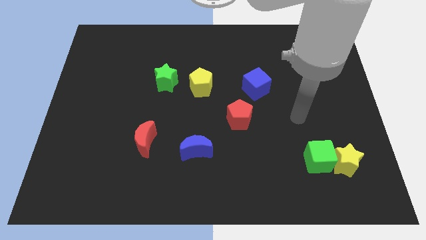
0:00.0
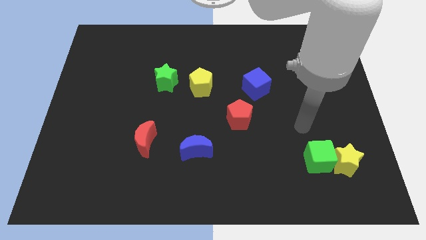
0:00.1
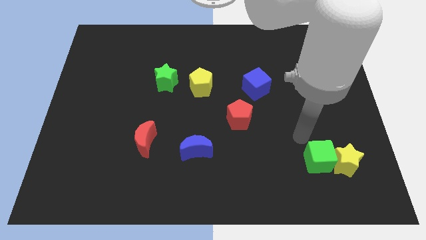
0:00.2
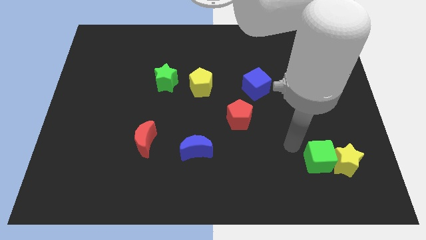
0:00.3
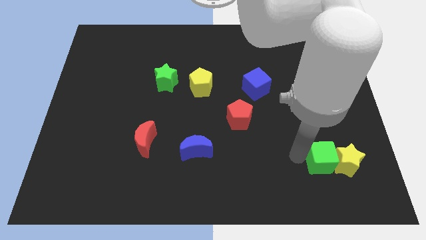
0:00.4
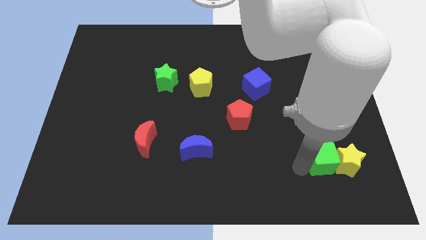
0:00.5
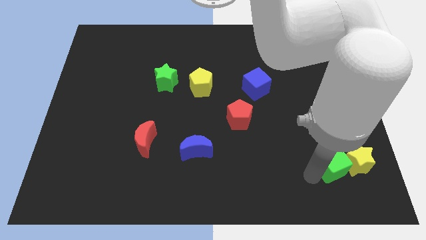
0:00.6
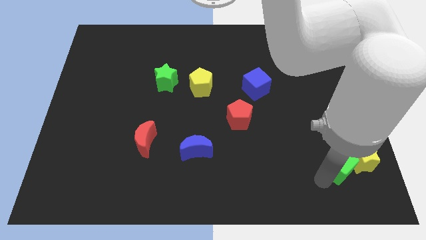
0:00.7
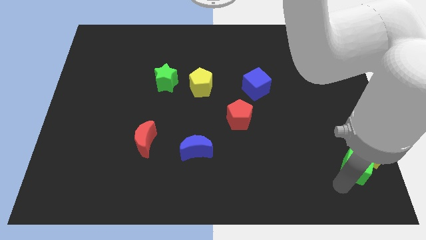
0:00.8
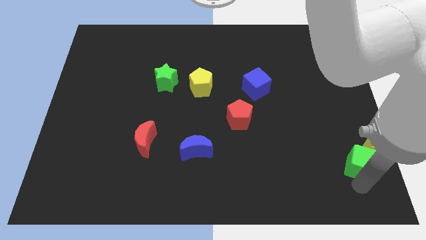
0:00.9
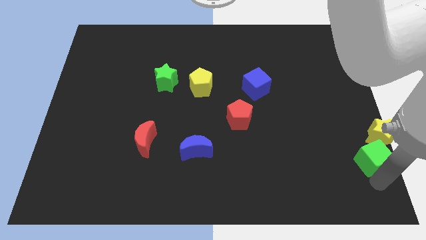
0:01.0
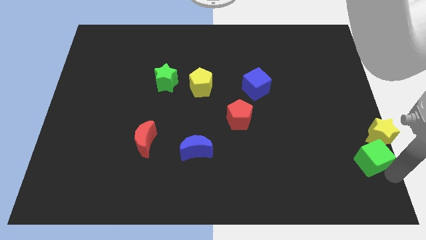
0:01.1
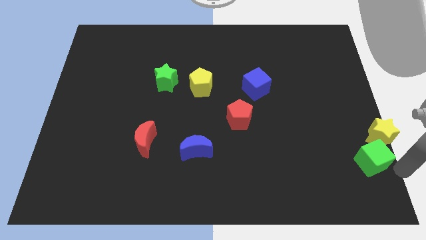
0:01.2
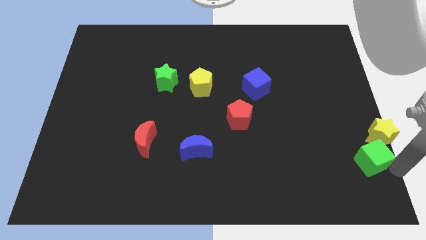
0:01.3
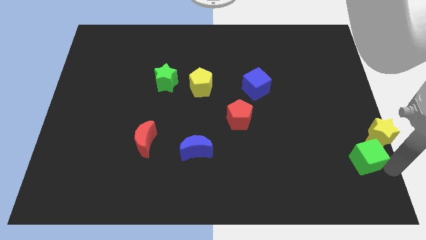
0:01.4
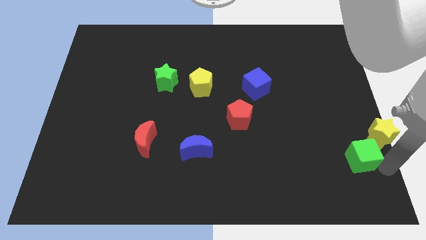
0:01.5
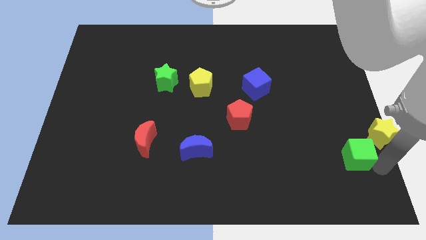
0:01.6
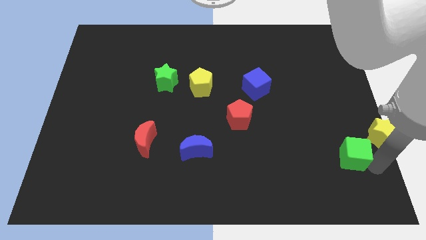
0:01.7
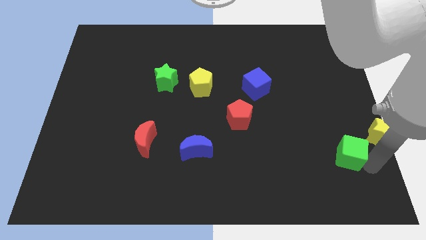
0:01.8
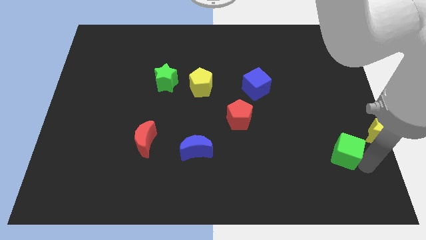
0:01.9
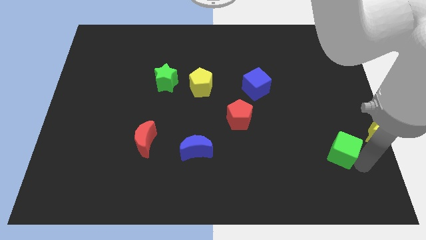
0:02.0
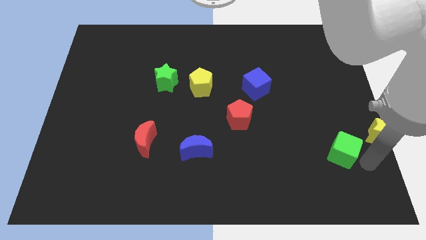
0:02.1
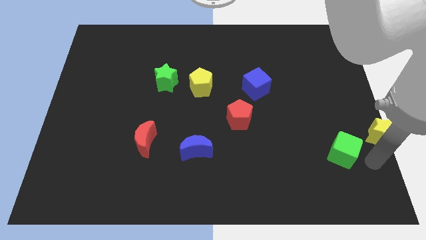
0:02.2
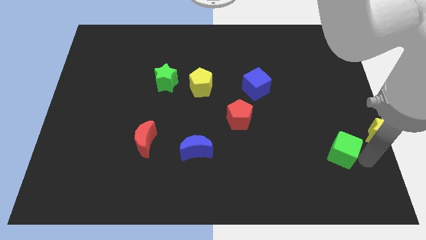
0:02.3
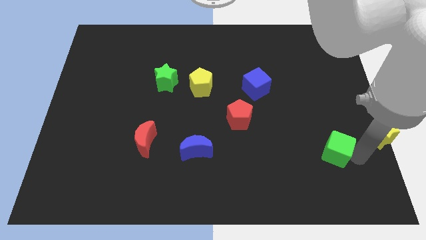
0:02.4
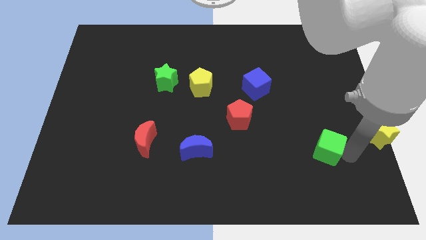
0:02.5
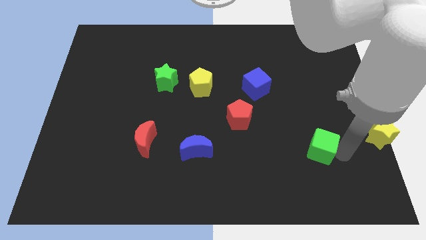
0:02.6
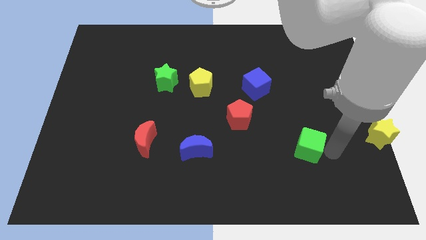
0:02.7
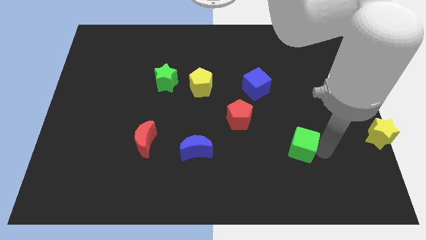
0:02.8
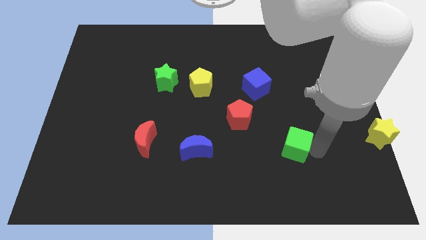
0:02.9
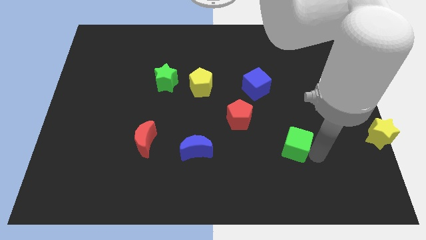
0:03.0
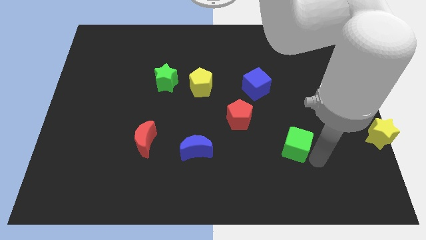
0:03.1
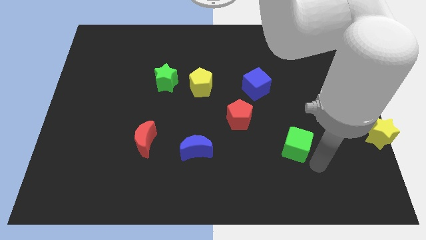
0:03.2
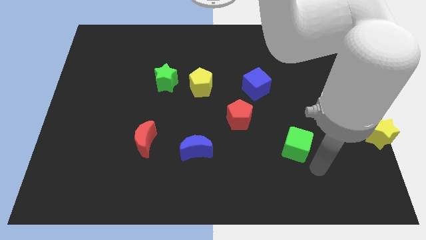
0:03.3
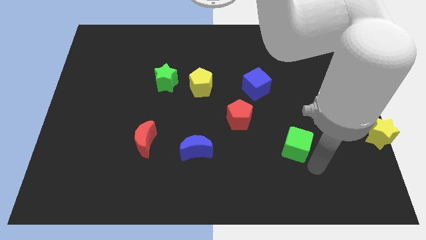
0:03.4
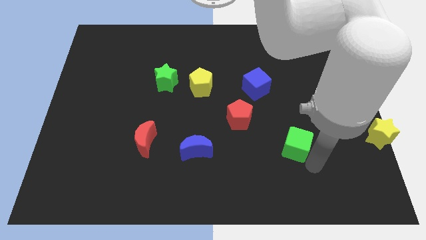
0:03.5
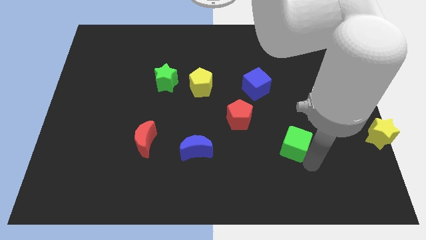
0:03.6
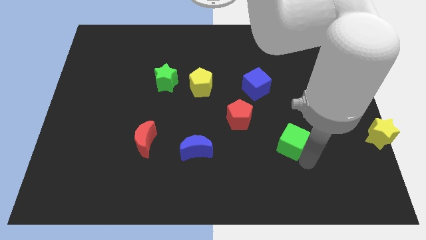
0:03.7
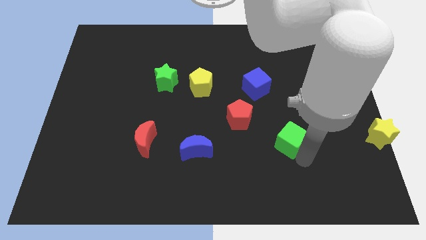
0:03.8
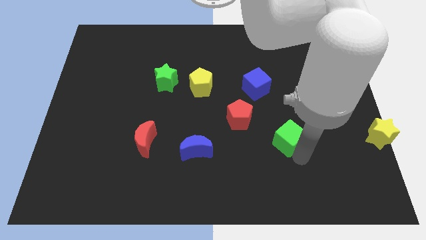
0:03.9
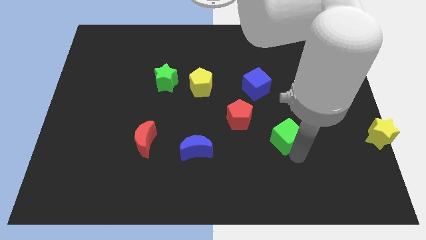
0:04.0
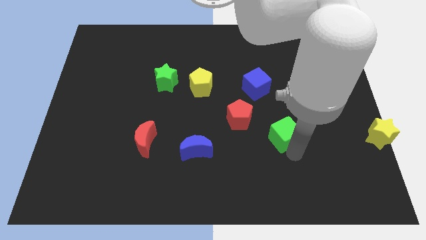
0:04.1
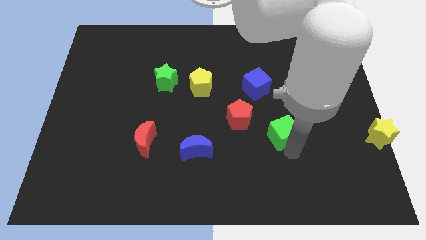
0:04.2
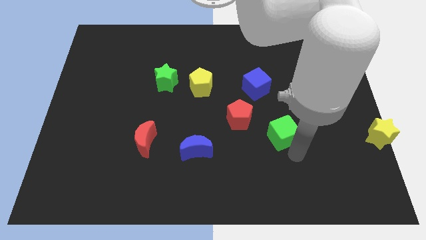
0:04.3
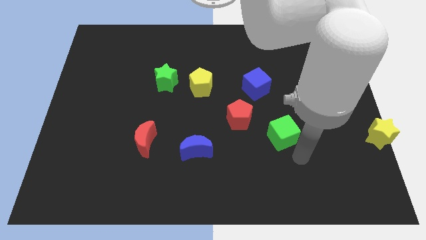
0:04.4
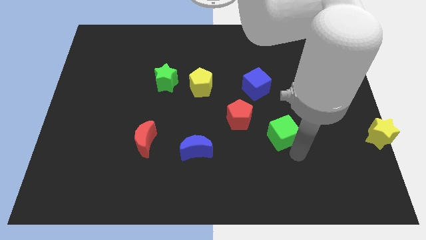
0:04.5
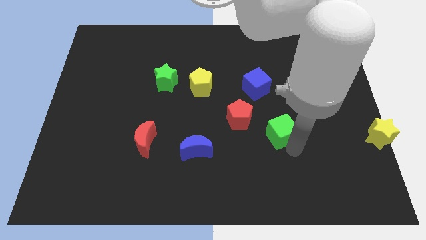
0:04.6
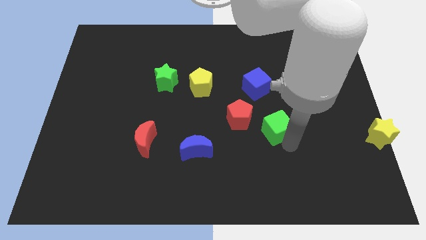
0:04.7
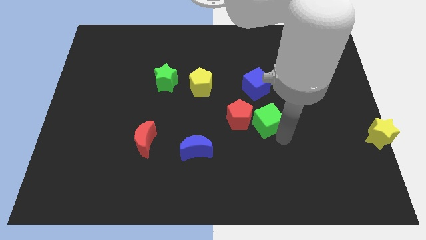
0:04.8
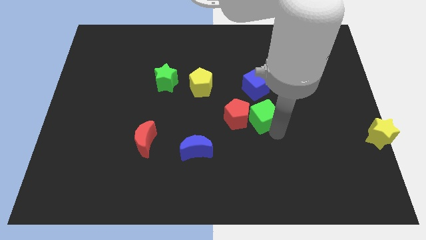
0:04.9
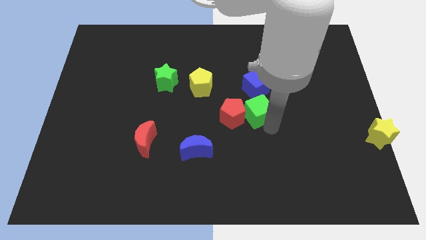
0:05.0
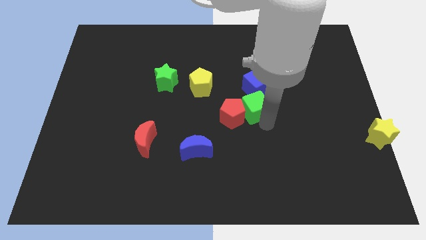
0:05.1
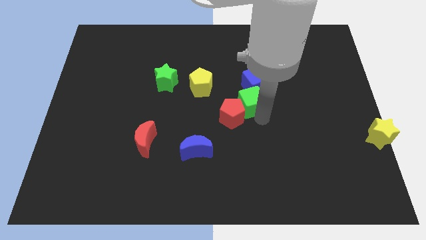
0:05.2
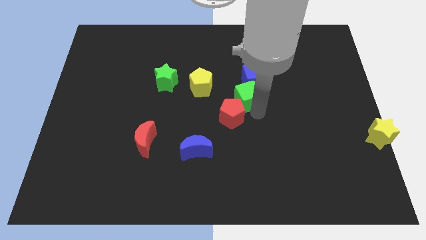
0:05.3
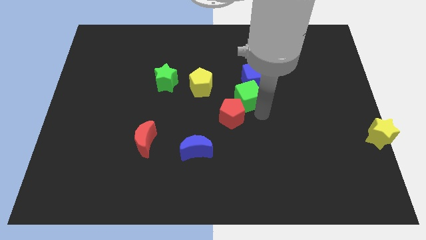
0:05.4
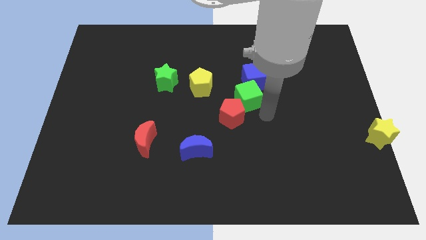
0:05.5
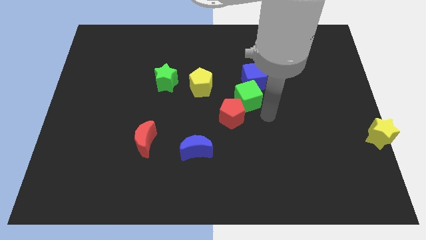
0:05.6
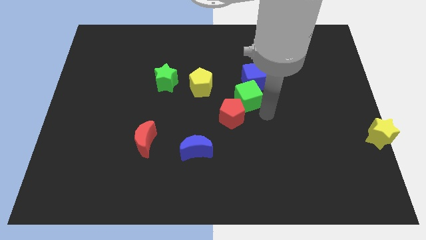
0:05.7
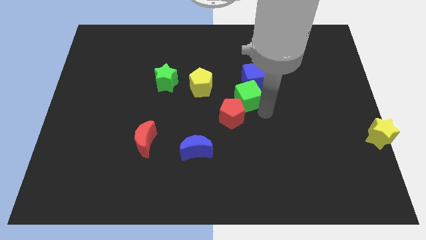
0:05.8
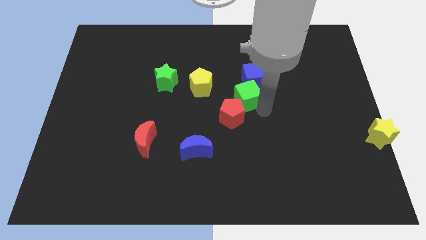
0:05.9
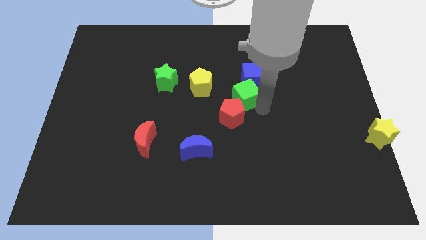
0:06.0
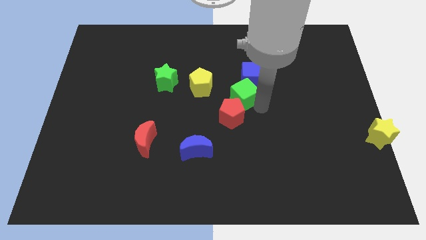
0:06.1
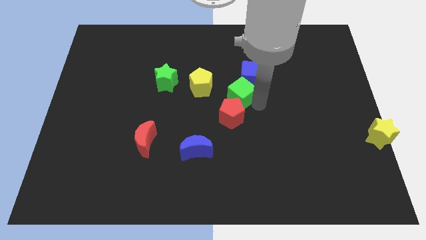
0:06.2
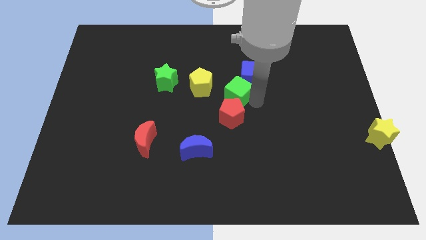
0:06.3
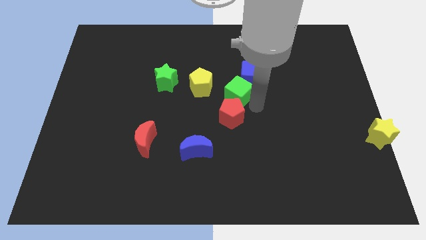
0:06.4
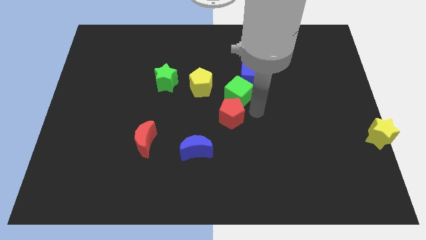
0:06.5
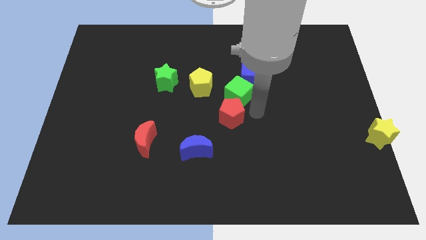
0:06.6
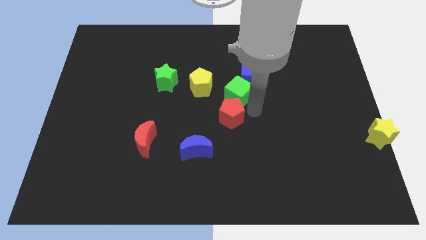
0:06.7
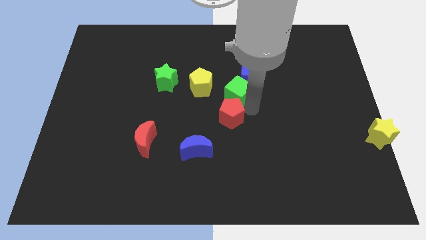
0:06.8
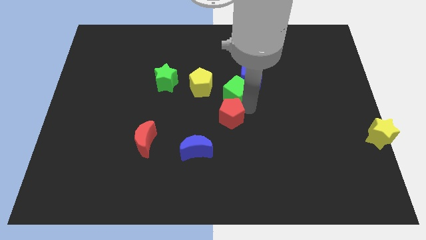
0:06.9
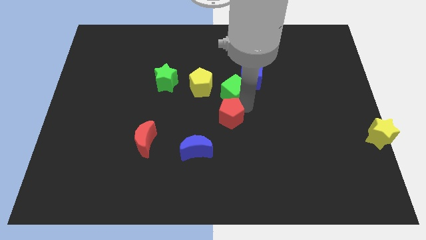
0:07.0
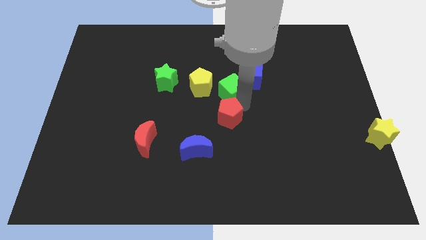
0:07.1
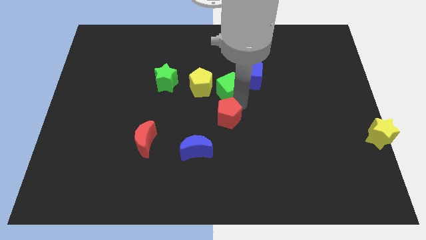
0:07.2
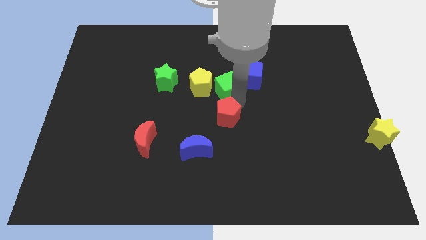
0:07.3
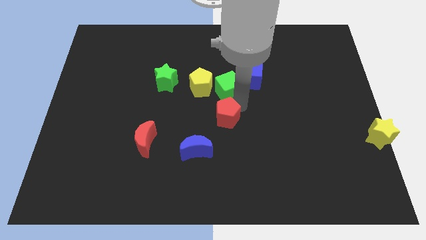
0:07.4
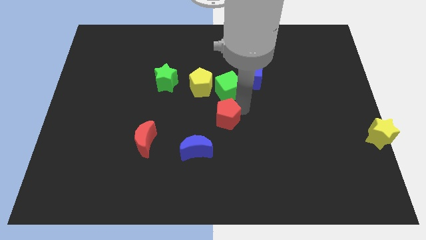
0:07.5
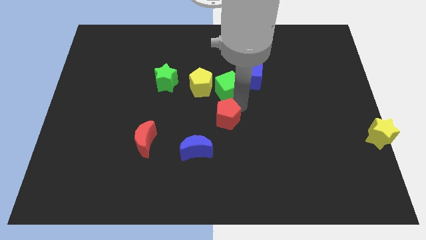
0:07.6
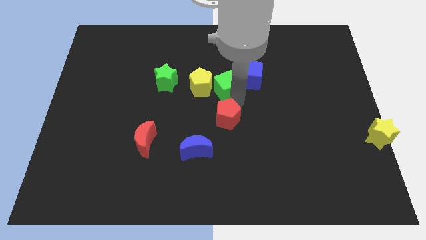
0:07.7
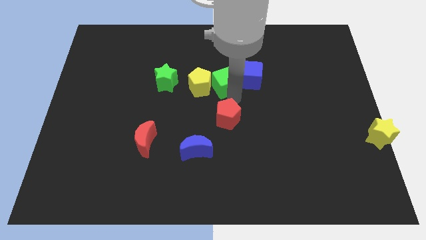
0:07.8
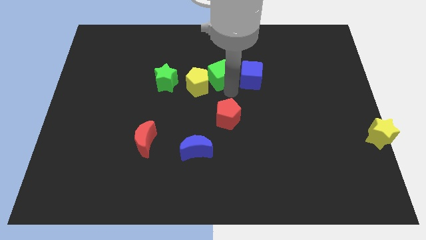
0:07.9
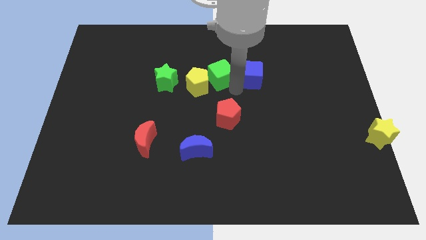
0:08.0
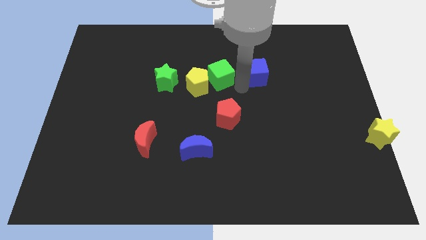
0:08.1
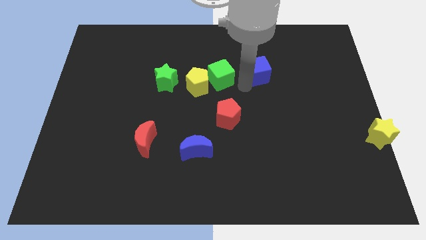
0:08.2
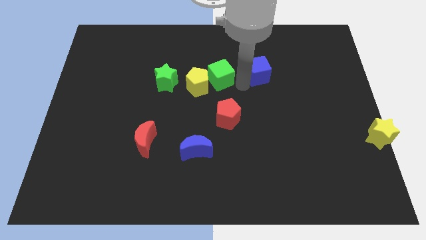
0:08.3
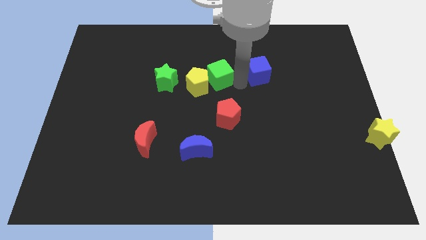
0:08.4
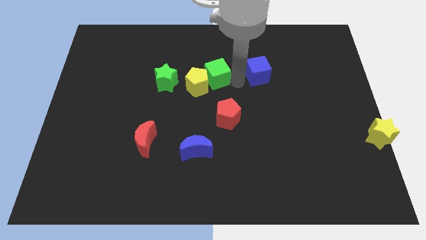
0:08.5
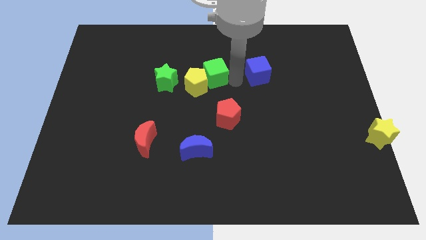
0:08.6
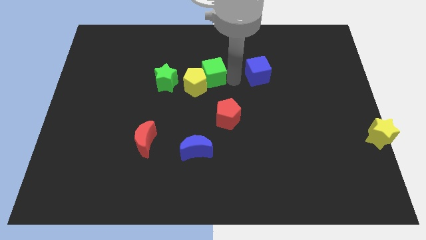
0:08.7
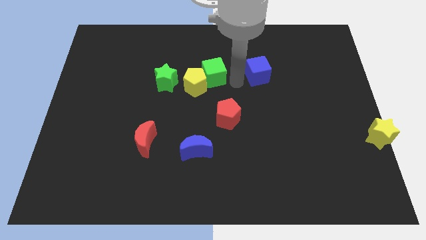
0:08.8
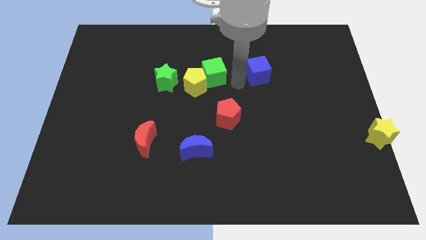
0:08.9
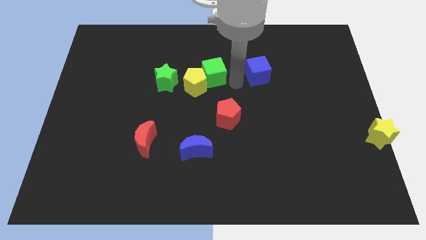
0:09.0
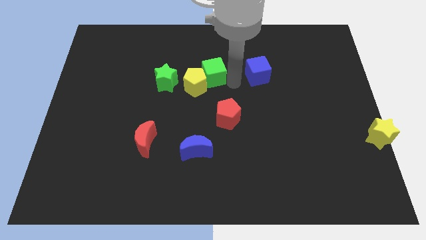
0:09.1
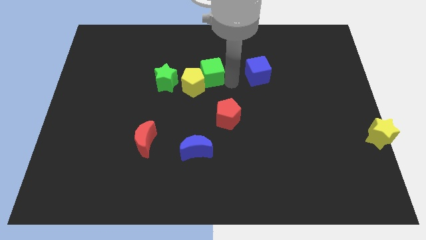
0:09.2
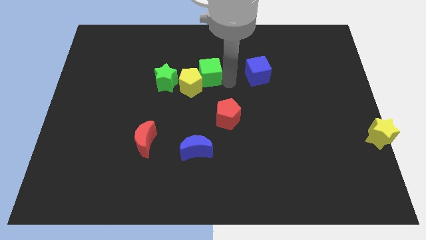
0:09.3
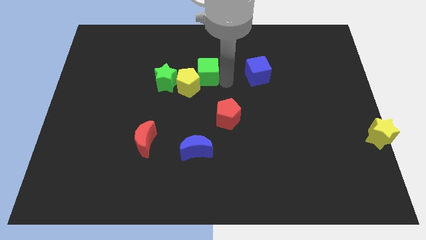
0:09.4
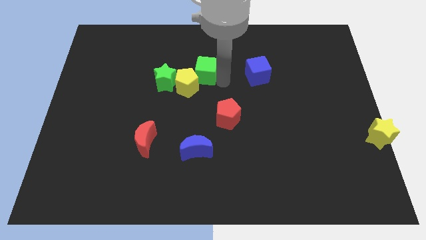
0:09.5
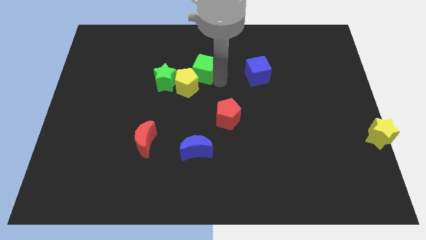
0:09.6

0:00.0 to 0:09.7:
move the green cube to the top right of the green star
